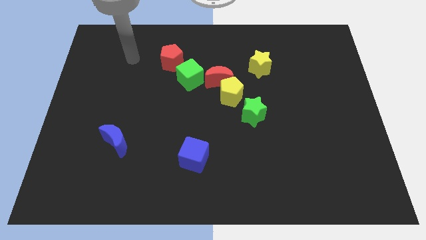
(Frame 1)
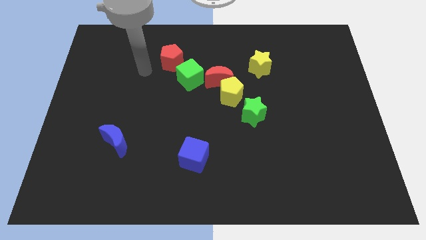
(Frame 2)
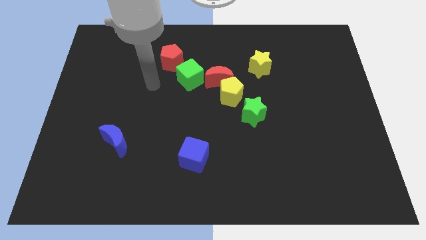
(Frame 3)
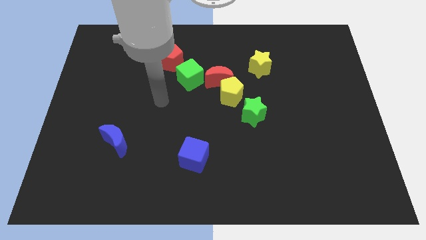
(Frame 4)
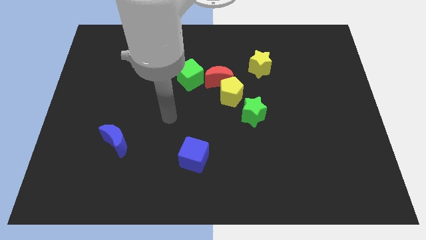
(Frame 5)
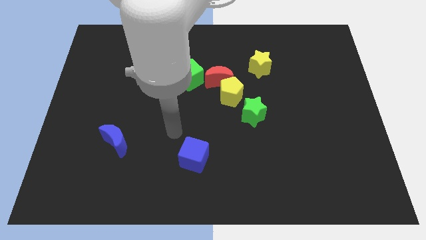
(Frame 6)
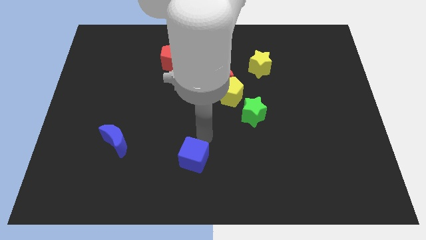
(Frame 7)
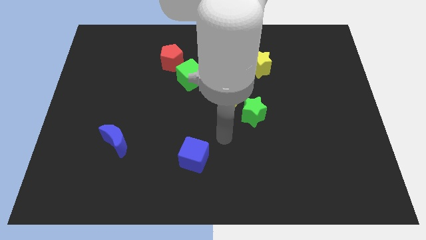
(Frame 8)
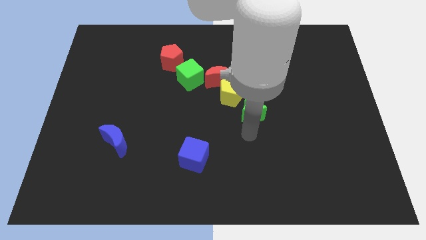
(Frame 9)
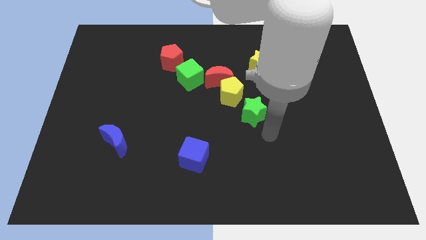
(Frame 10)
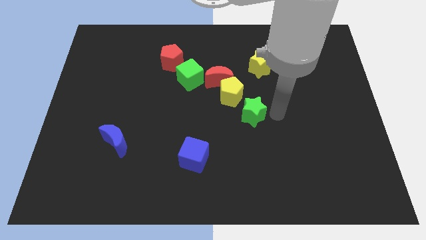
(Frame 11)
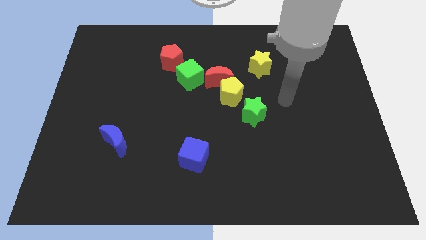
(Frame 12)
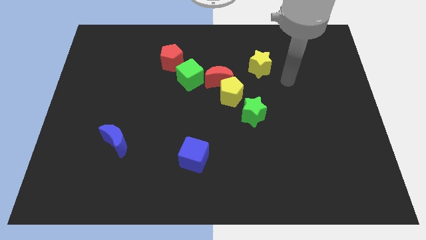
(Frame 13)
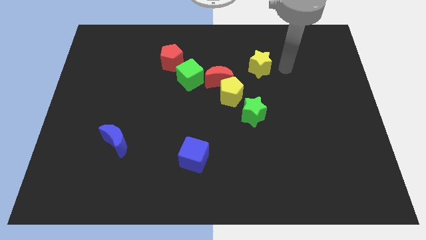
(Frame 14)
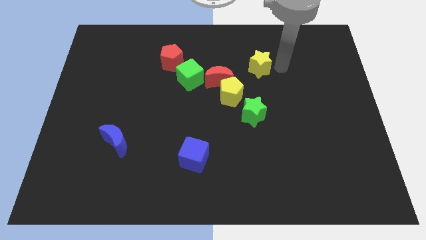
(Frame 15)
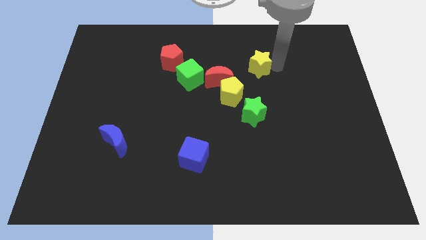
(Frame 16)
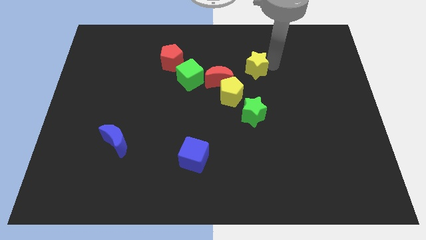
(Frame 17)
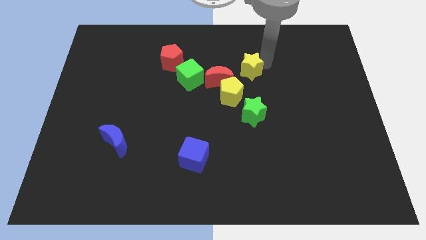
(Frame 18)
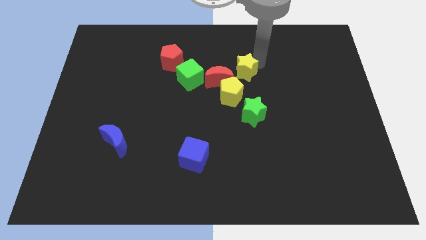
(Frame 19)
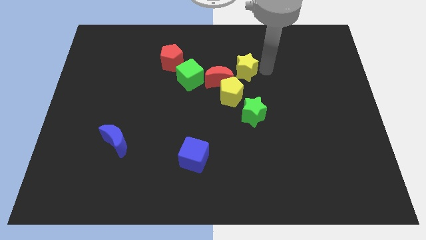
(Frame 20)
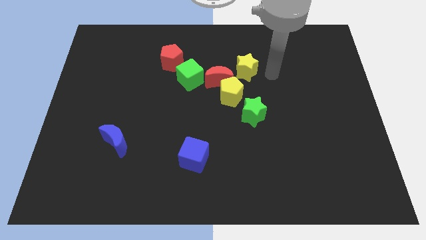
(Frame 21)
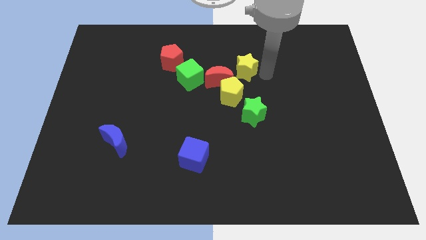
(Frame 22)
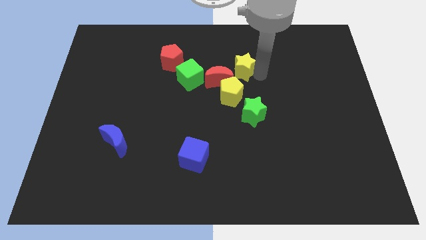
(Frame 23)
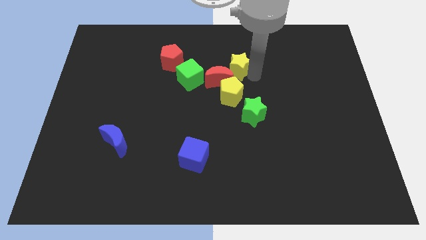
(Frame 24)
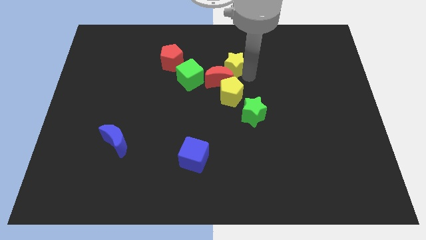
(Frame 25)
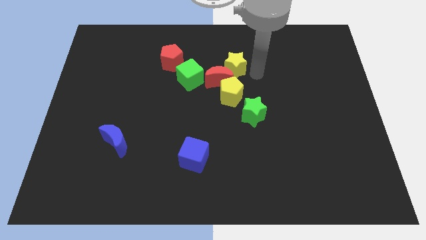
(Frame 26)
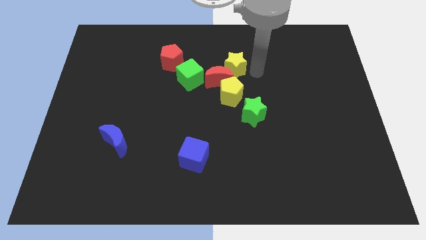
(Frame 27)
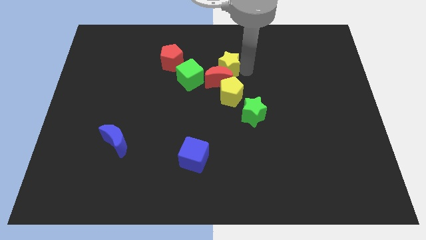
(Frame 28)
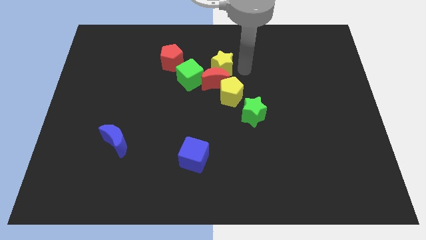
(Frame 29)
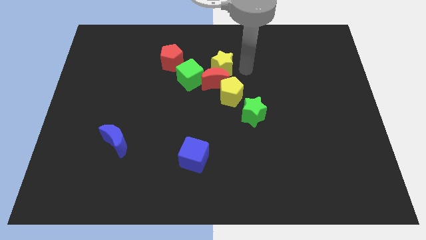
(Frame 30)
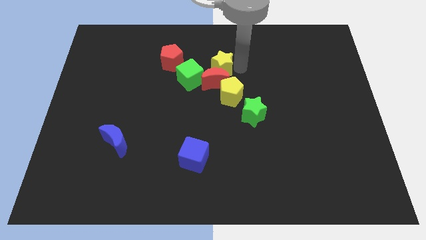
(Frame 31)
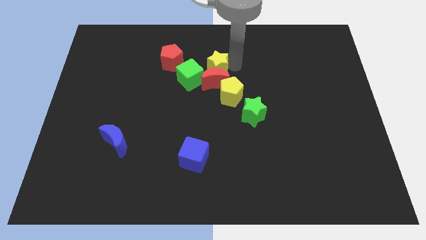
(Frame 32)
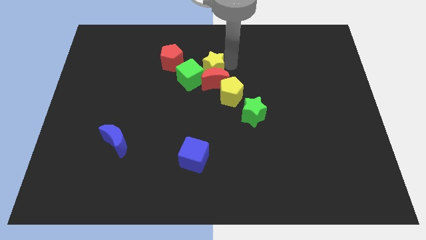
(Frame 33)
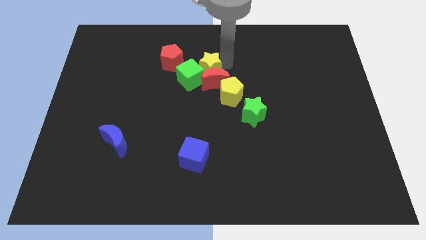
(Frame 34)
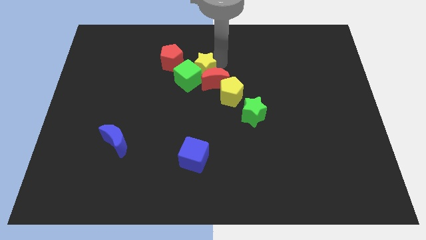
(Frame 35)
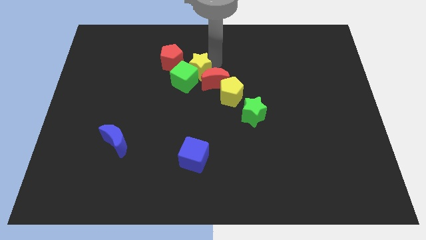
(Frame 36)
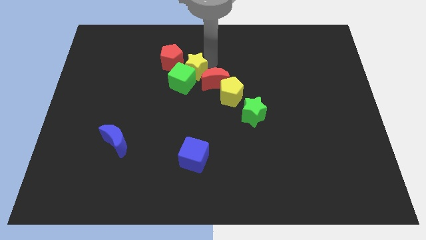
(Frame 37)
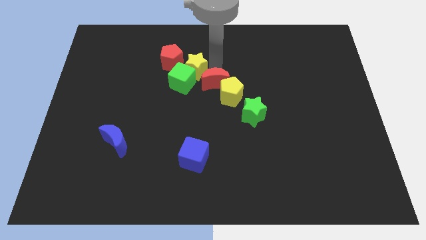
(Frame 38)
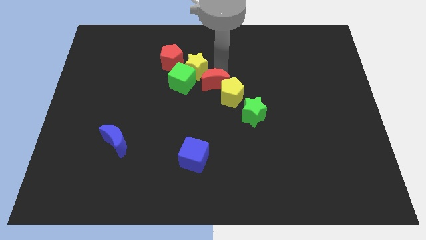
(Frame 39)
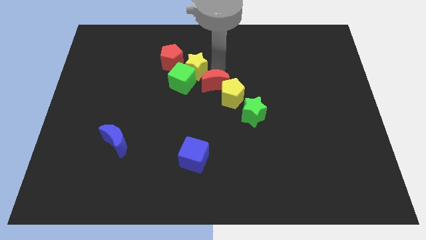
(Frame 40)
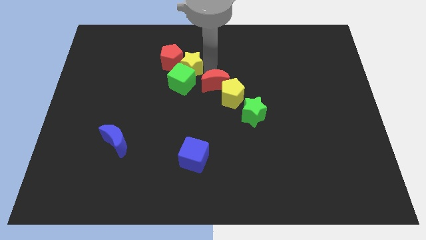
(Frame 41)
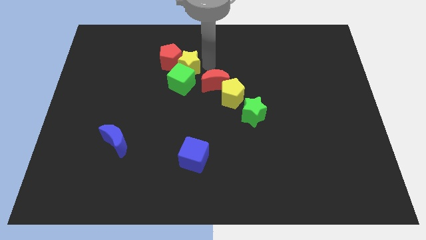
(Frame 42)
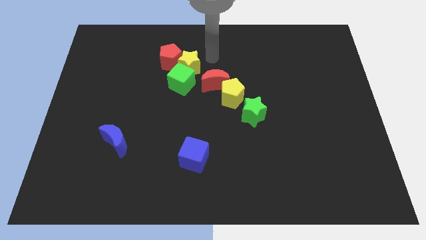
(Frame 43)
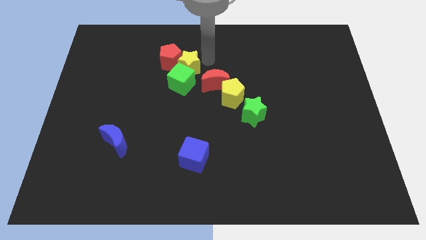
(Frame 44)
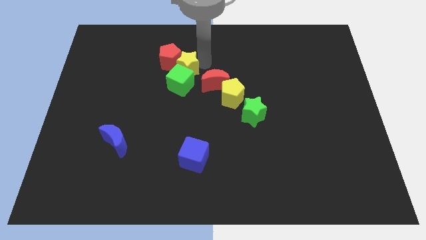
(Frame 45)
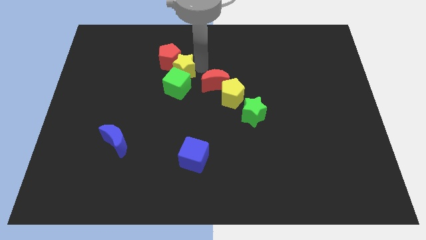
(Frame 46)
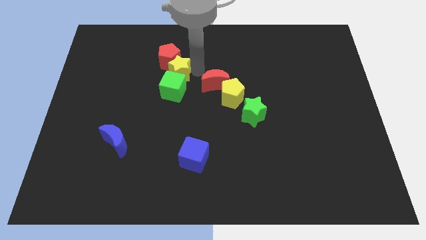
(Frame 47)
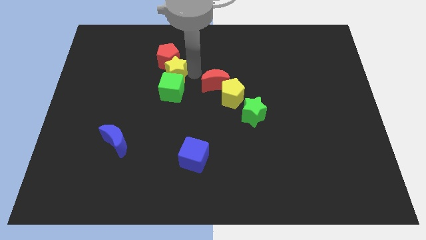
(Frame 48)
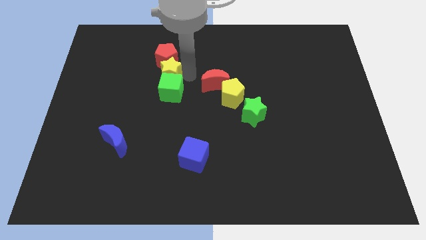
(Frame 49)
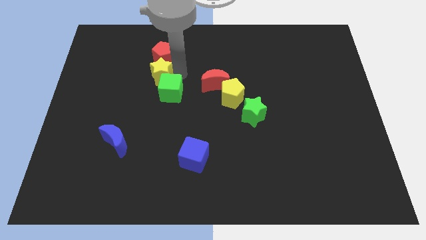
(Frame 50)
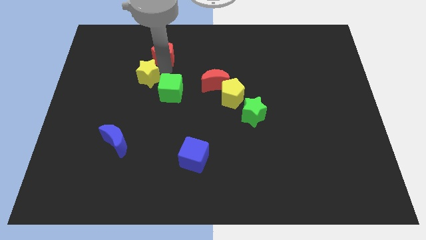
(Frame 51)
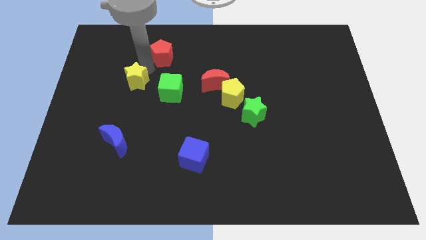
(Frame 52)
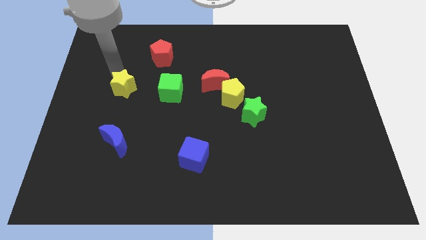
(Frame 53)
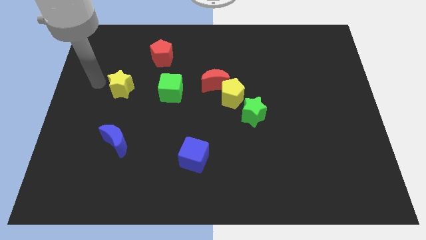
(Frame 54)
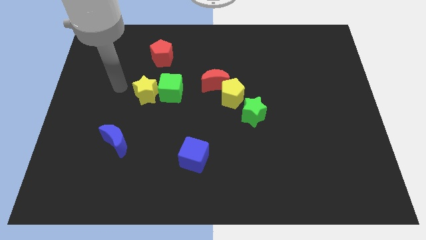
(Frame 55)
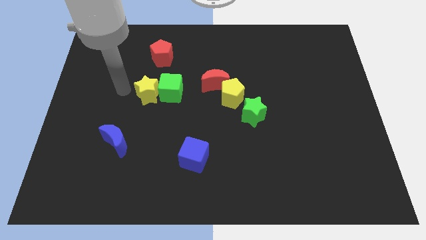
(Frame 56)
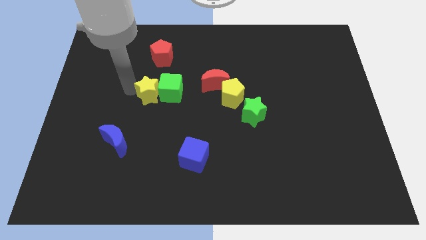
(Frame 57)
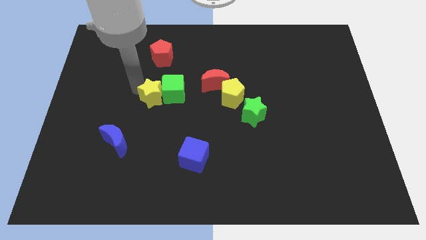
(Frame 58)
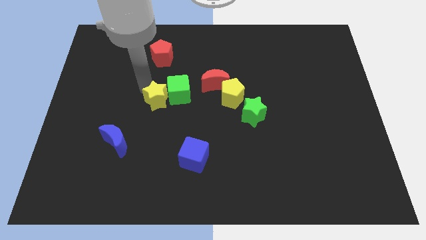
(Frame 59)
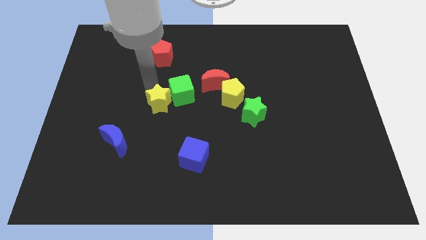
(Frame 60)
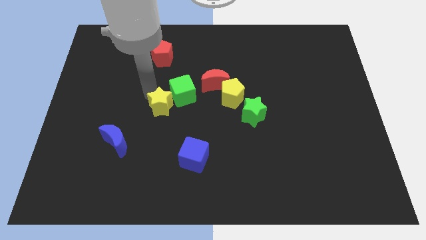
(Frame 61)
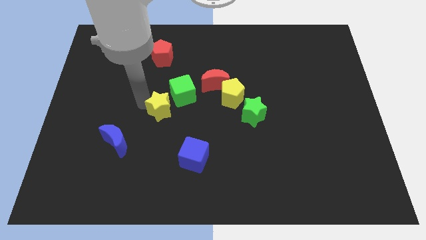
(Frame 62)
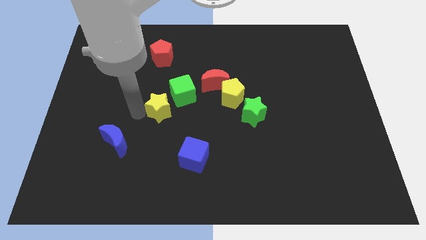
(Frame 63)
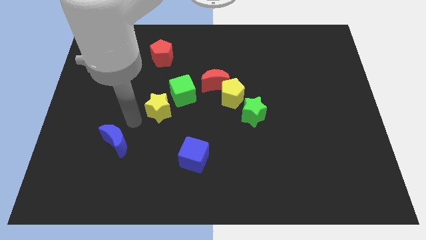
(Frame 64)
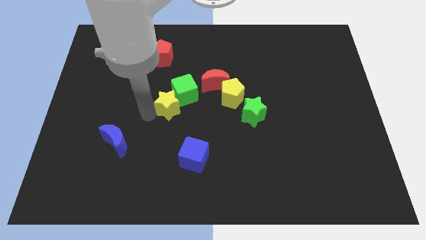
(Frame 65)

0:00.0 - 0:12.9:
put the yellow star to the left side of the yellow pentagon
